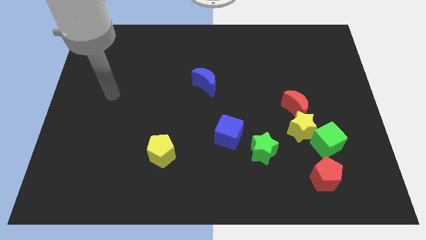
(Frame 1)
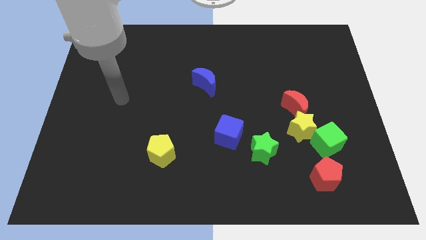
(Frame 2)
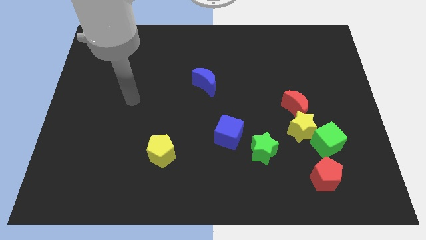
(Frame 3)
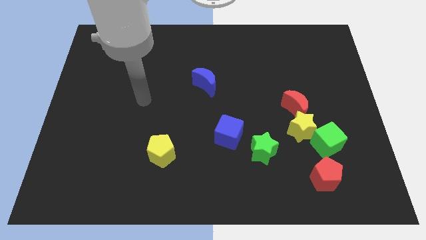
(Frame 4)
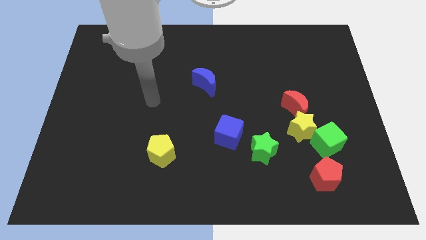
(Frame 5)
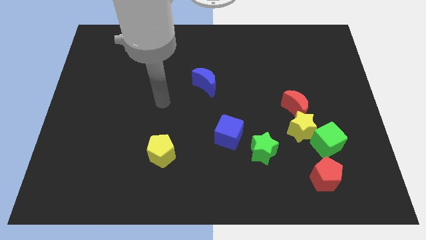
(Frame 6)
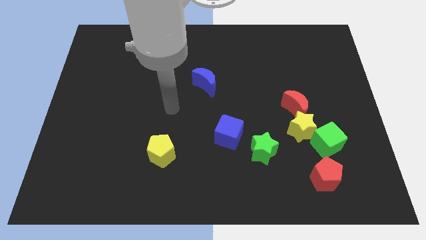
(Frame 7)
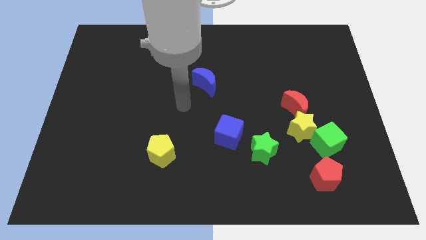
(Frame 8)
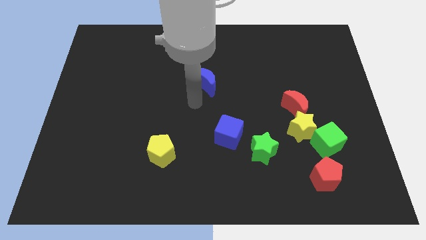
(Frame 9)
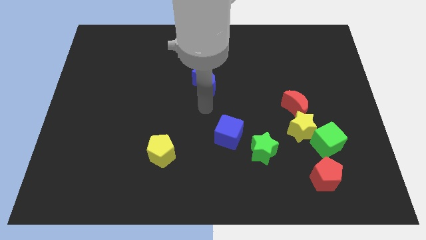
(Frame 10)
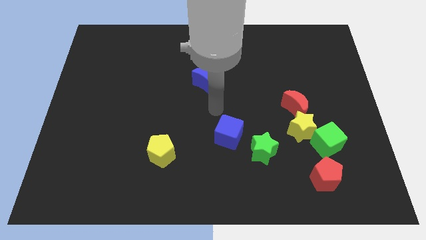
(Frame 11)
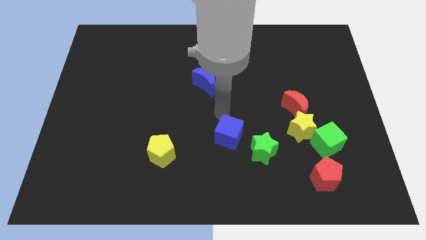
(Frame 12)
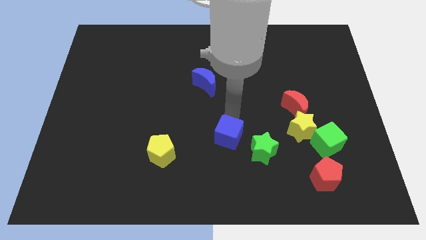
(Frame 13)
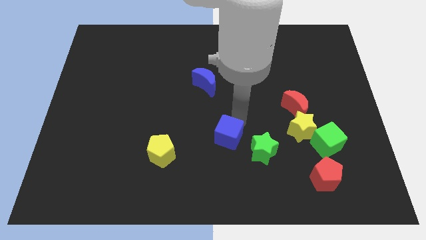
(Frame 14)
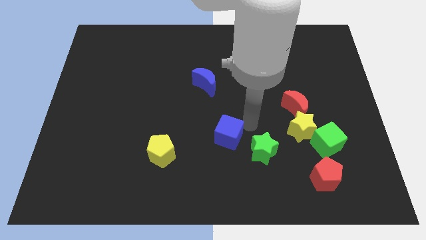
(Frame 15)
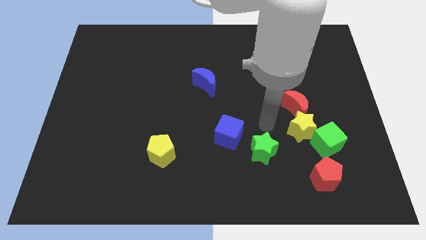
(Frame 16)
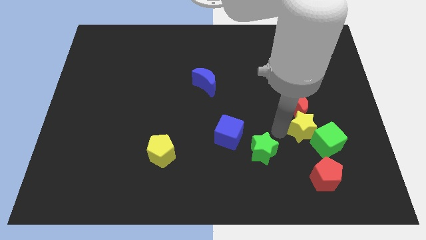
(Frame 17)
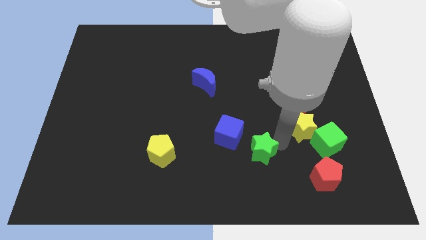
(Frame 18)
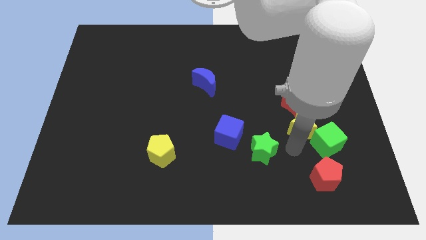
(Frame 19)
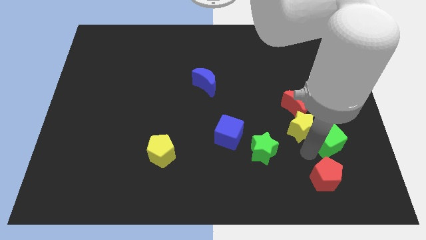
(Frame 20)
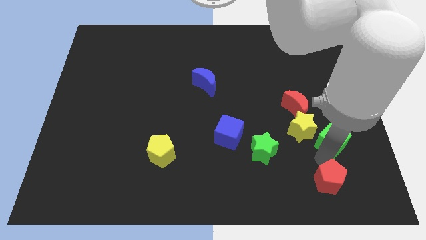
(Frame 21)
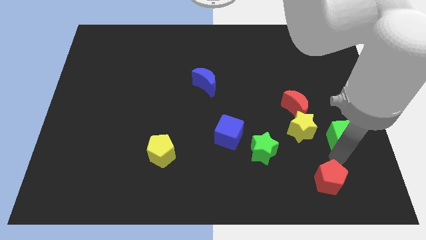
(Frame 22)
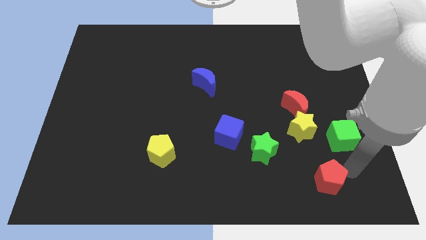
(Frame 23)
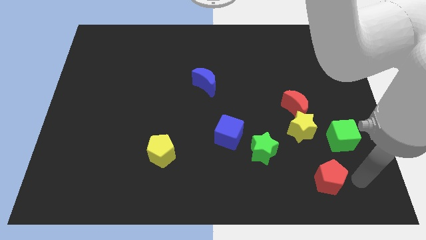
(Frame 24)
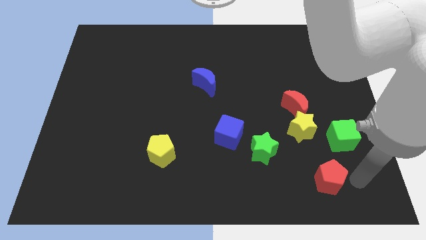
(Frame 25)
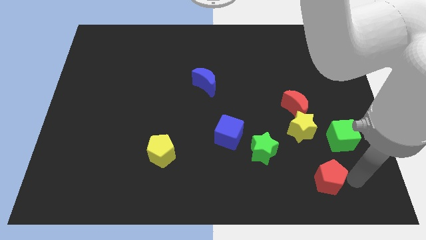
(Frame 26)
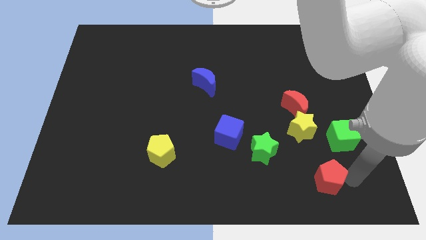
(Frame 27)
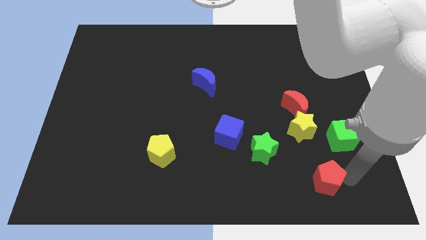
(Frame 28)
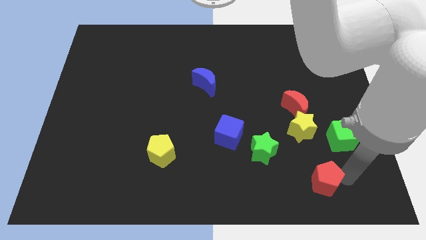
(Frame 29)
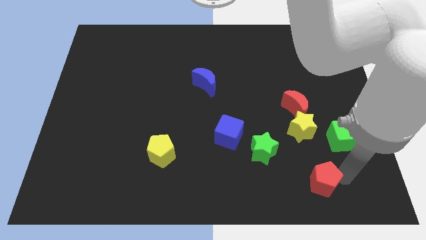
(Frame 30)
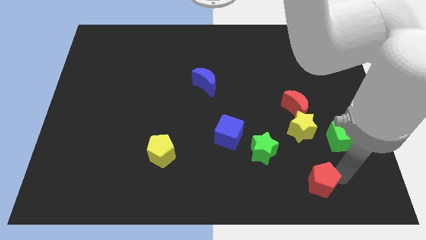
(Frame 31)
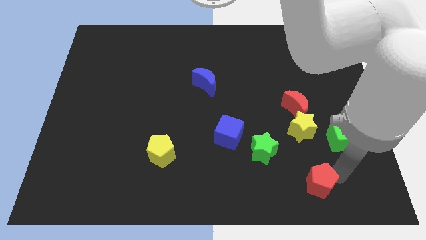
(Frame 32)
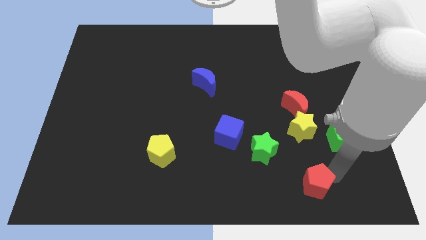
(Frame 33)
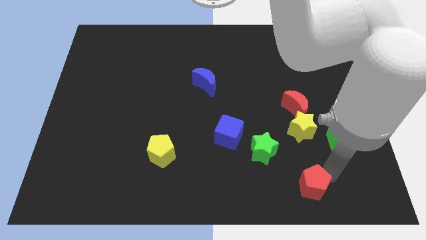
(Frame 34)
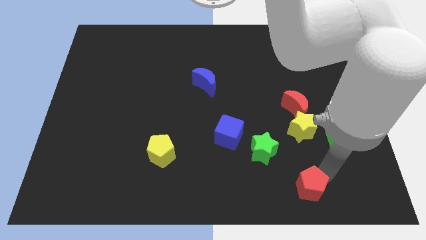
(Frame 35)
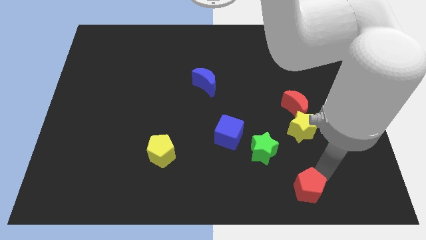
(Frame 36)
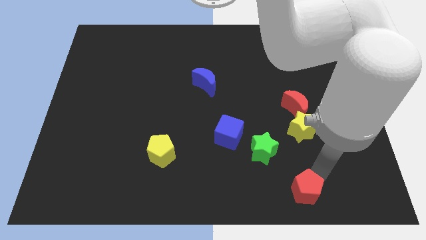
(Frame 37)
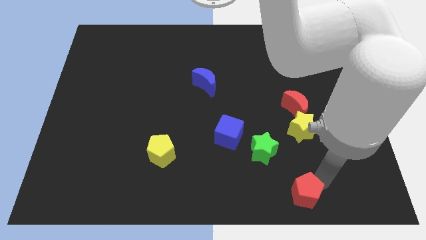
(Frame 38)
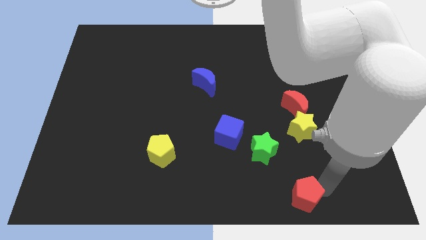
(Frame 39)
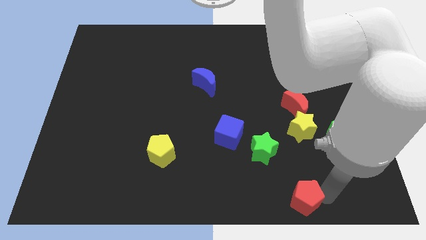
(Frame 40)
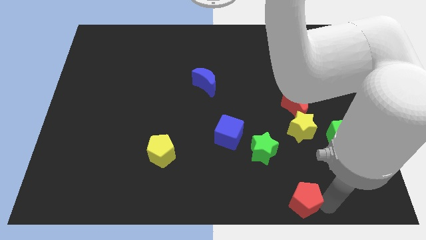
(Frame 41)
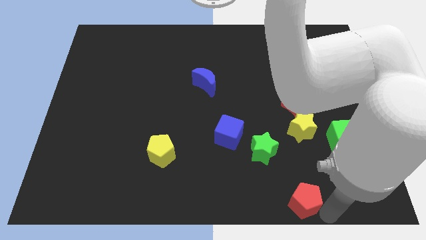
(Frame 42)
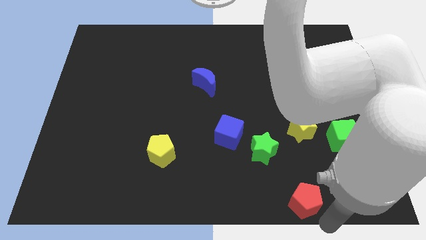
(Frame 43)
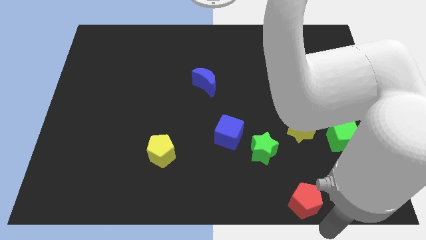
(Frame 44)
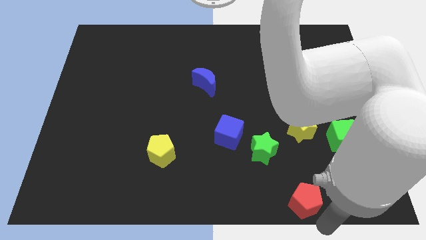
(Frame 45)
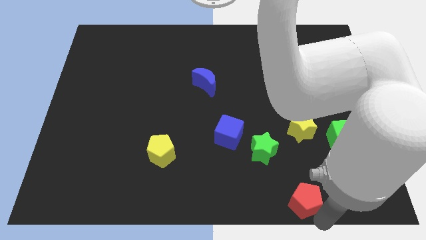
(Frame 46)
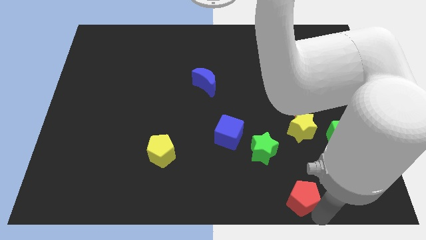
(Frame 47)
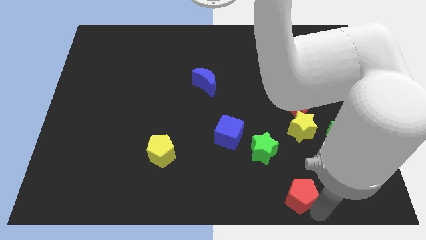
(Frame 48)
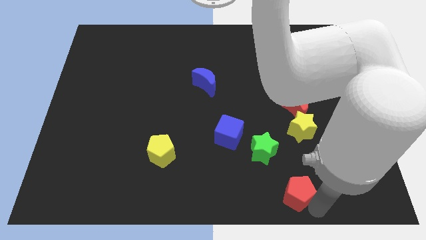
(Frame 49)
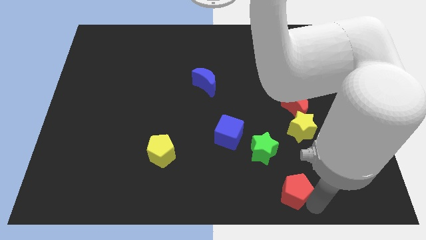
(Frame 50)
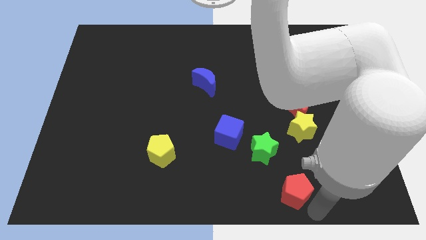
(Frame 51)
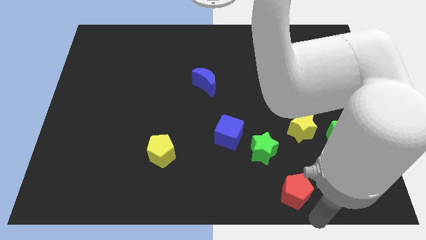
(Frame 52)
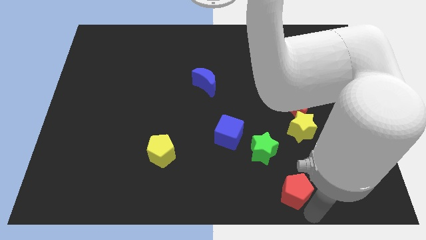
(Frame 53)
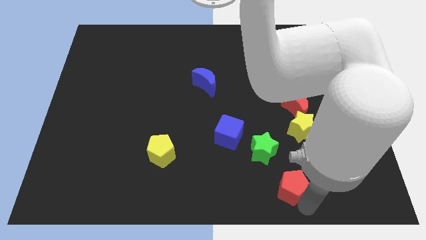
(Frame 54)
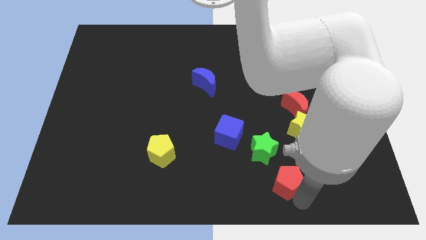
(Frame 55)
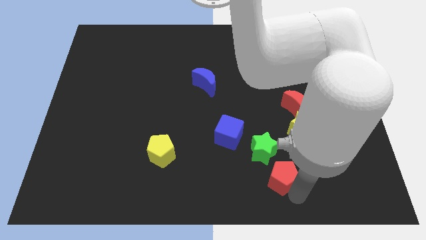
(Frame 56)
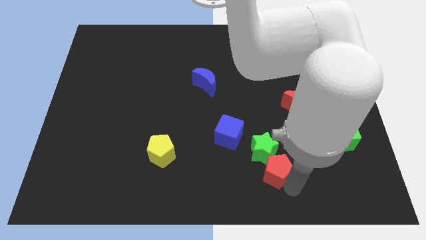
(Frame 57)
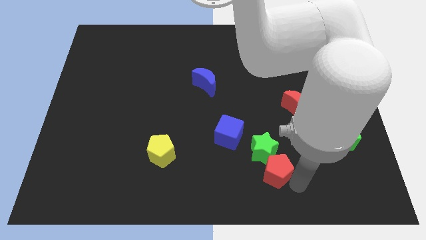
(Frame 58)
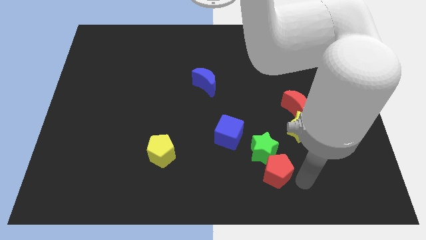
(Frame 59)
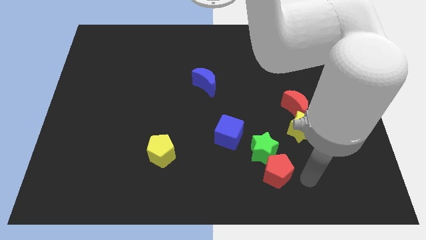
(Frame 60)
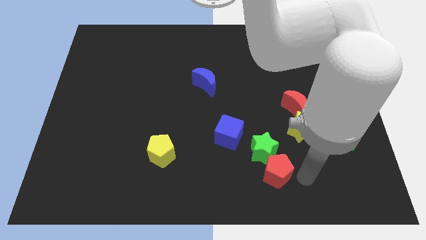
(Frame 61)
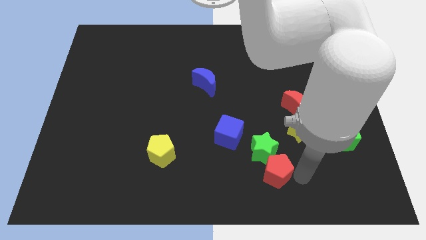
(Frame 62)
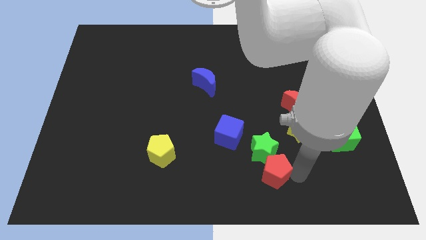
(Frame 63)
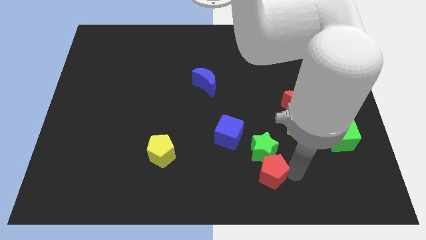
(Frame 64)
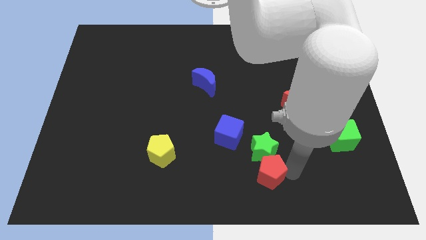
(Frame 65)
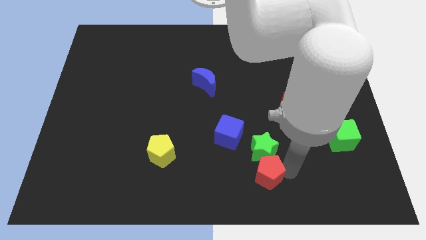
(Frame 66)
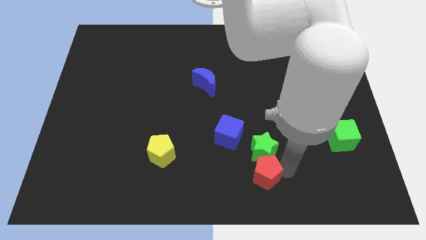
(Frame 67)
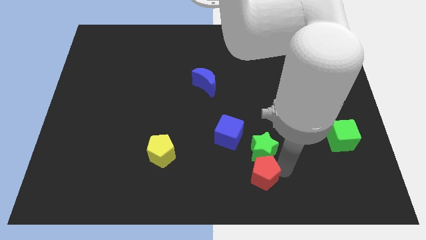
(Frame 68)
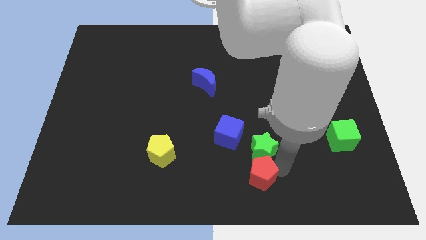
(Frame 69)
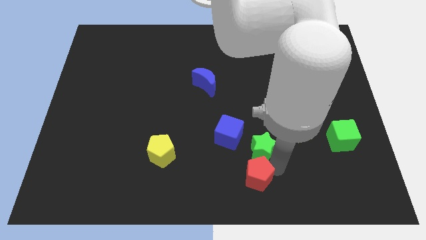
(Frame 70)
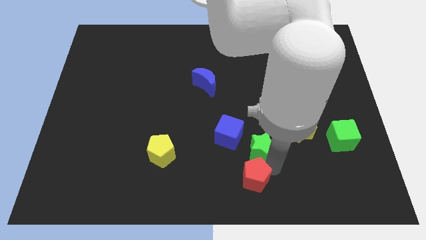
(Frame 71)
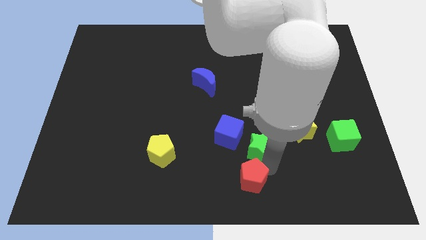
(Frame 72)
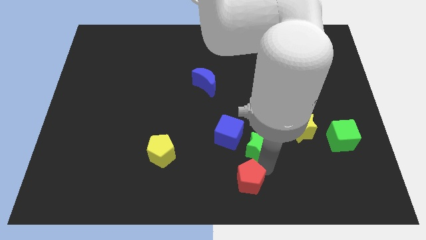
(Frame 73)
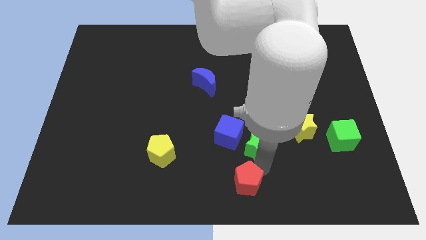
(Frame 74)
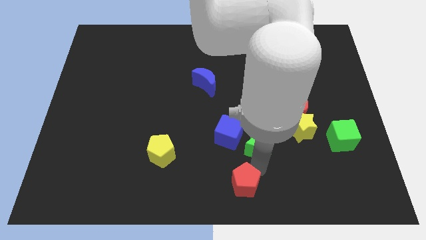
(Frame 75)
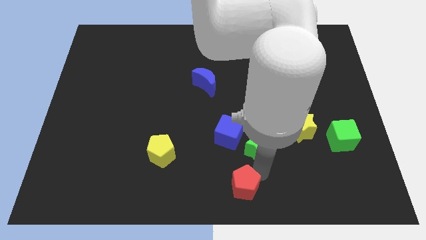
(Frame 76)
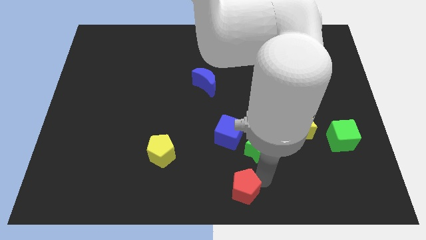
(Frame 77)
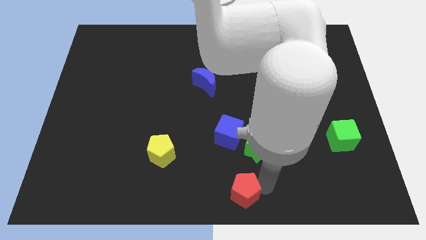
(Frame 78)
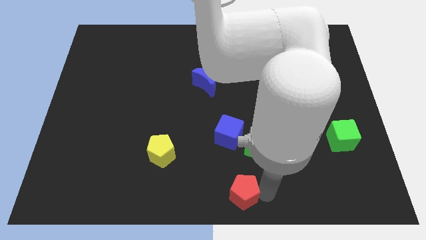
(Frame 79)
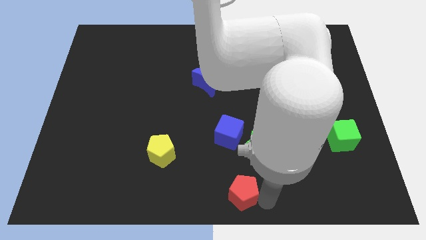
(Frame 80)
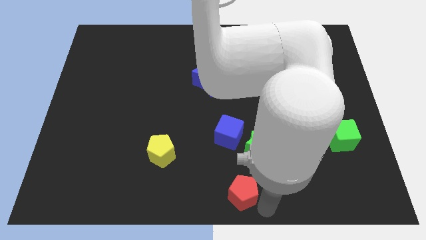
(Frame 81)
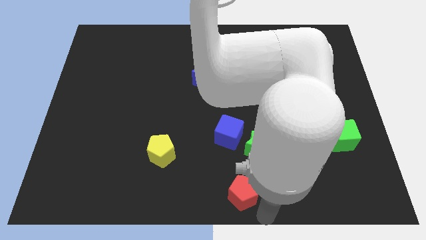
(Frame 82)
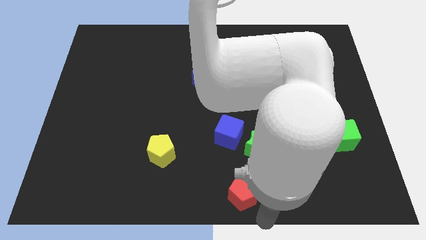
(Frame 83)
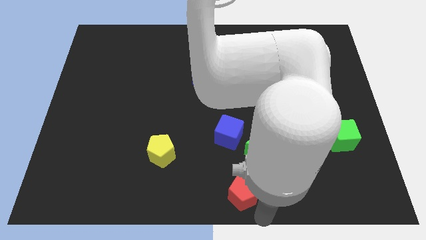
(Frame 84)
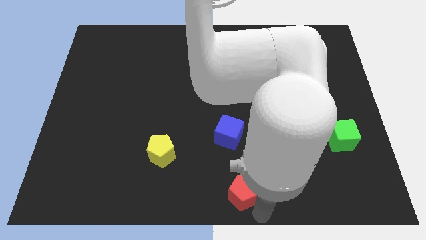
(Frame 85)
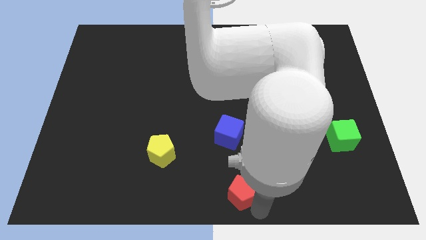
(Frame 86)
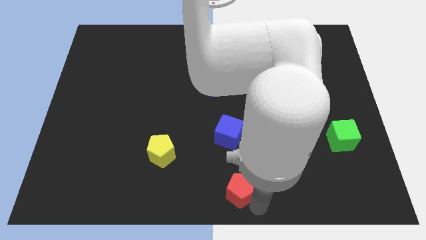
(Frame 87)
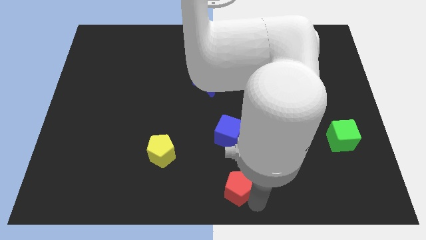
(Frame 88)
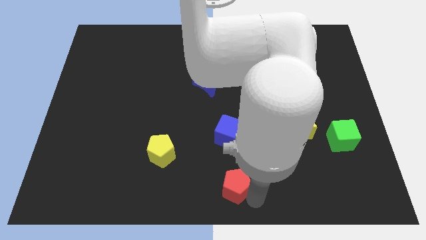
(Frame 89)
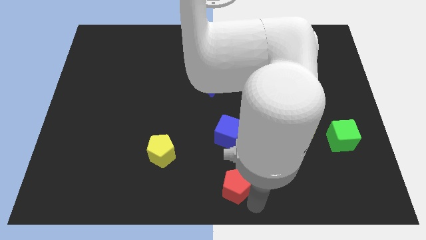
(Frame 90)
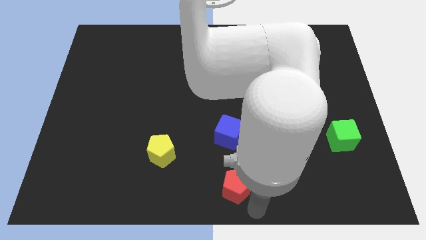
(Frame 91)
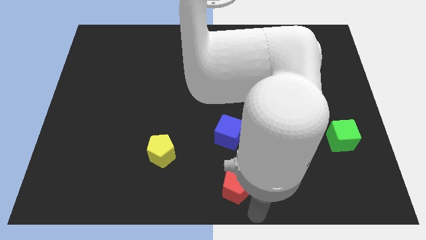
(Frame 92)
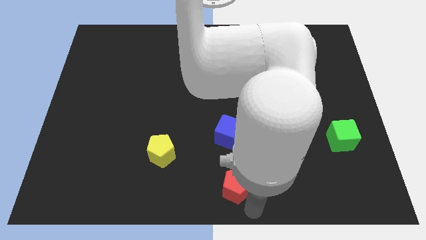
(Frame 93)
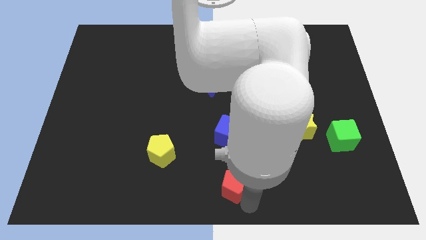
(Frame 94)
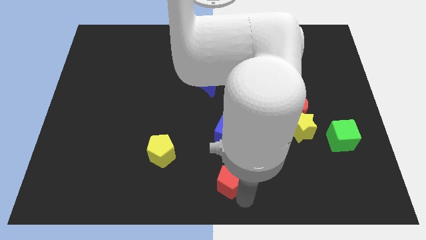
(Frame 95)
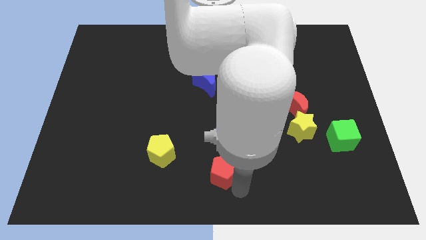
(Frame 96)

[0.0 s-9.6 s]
push the red pentagon left
